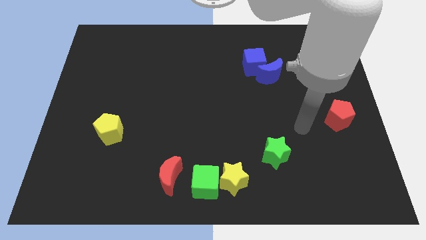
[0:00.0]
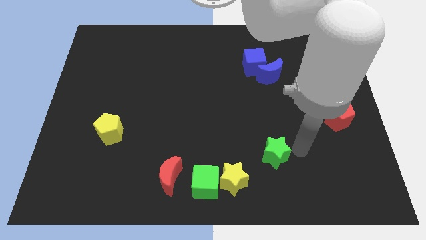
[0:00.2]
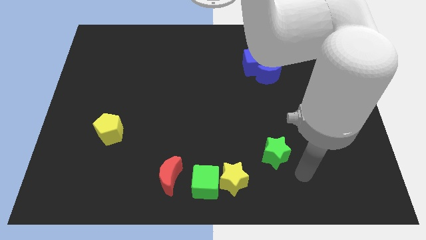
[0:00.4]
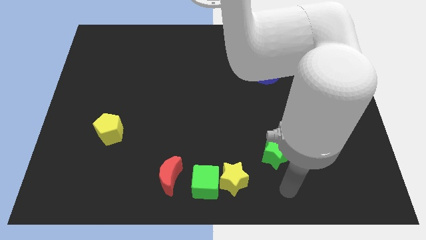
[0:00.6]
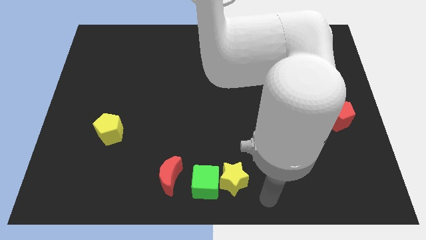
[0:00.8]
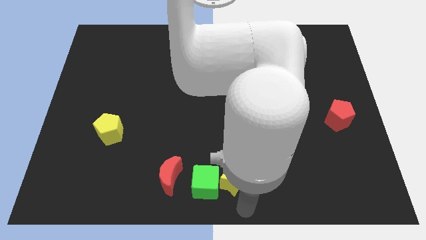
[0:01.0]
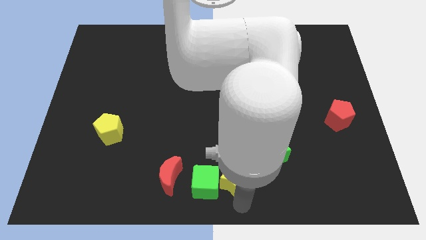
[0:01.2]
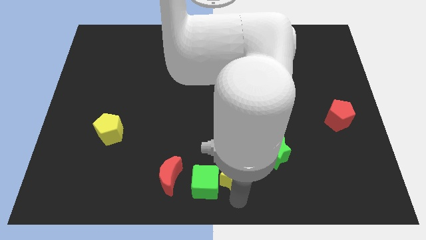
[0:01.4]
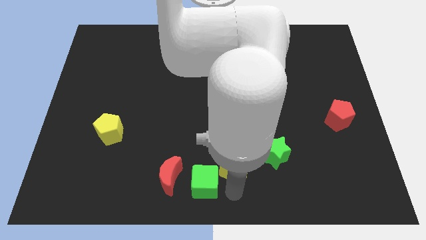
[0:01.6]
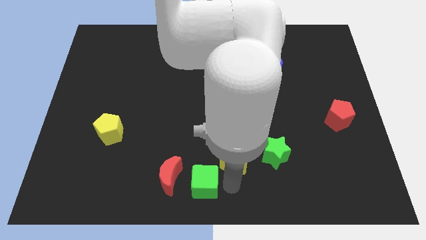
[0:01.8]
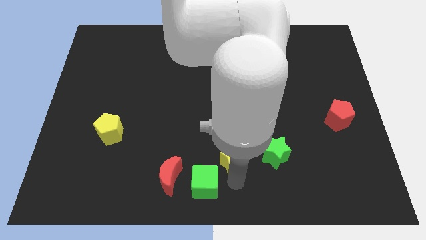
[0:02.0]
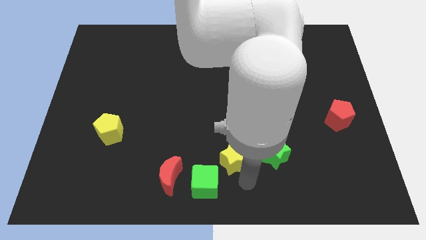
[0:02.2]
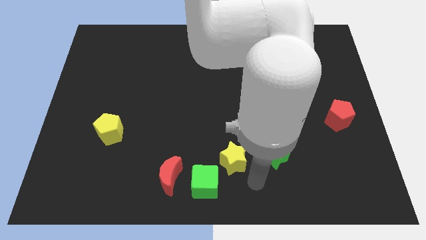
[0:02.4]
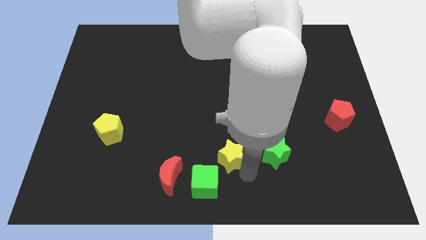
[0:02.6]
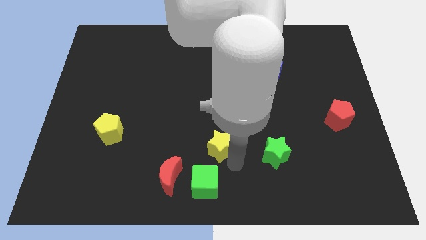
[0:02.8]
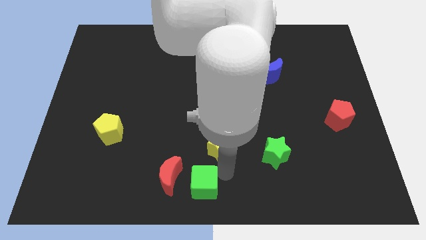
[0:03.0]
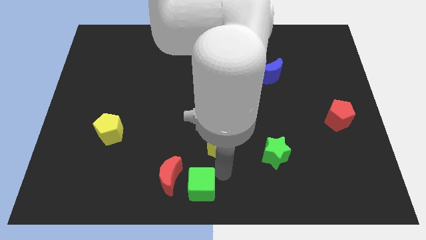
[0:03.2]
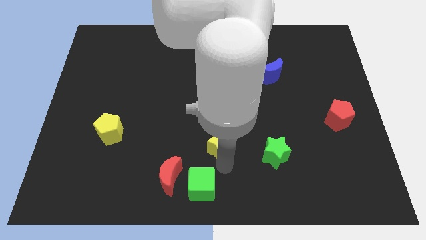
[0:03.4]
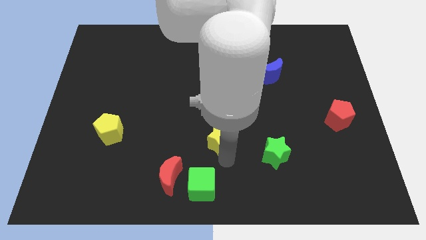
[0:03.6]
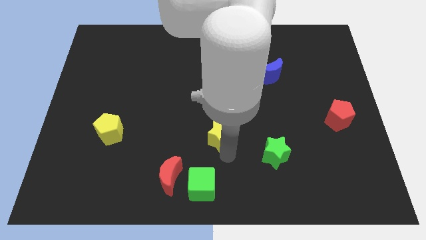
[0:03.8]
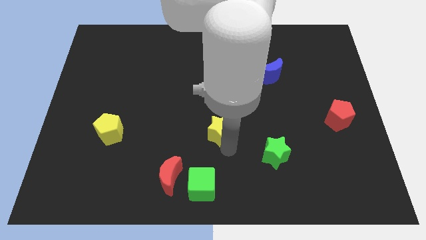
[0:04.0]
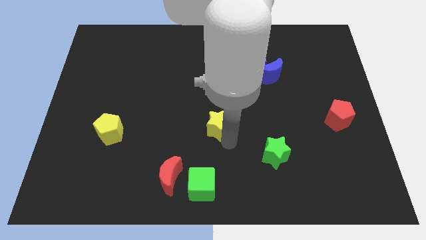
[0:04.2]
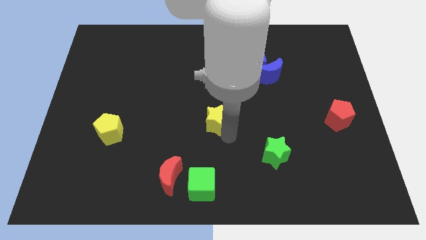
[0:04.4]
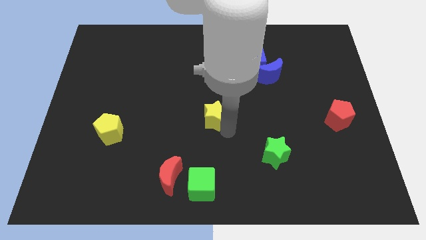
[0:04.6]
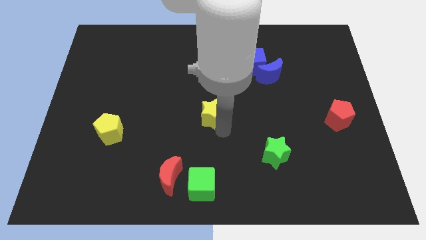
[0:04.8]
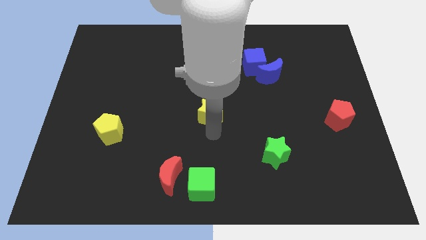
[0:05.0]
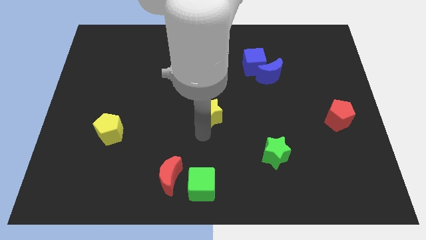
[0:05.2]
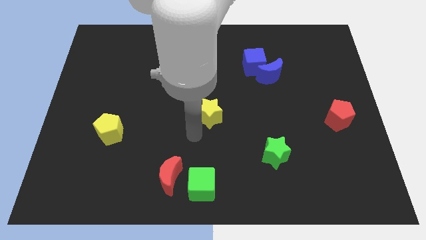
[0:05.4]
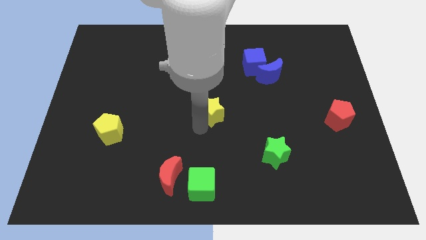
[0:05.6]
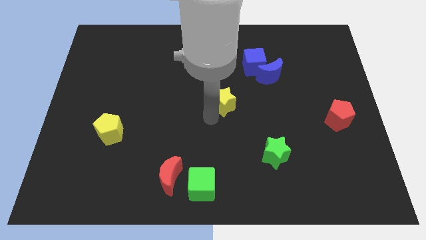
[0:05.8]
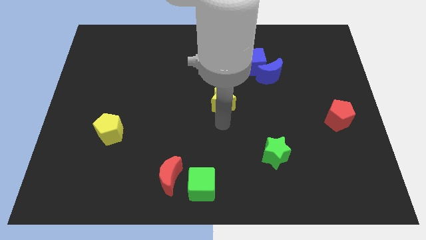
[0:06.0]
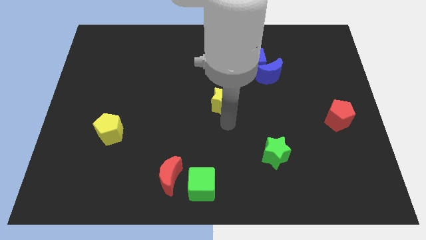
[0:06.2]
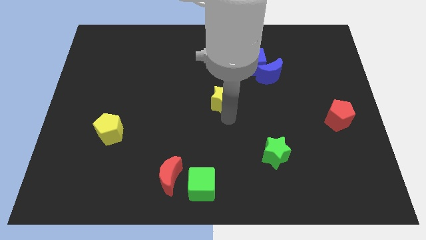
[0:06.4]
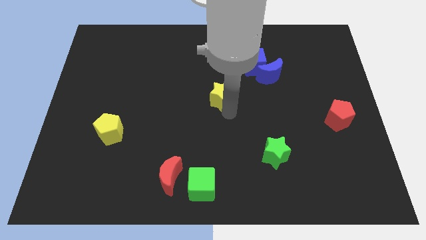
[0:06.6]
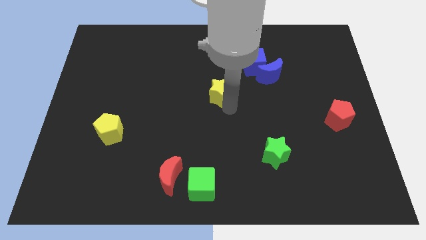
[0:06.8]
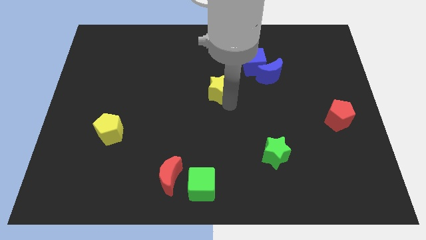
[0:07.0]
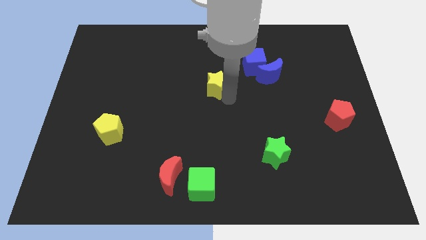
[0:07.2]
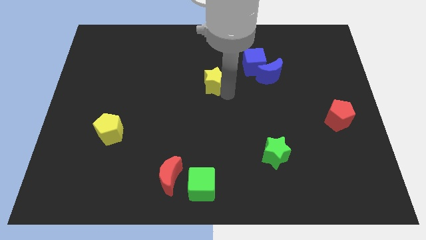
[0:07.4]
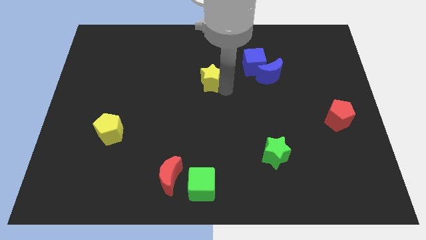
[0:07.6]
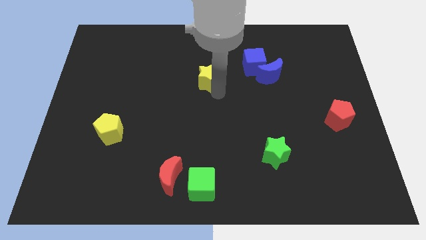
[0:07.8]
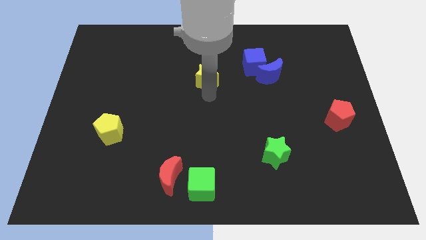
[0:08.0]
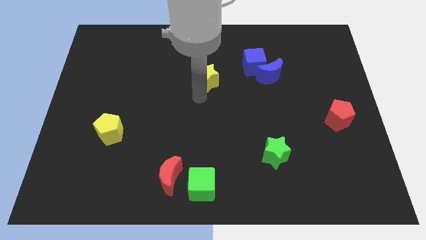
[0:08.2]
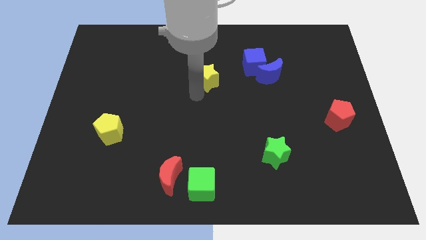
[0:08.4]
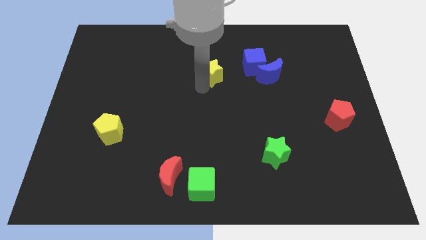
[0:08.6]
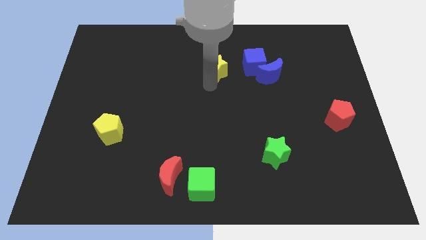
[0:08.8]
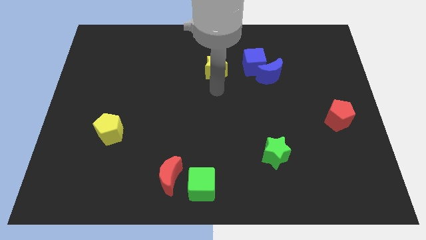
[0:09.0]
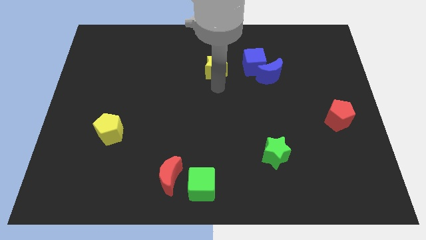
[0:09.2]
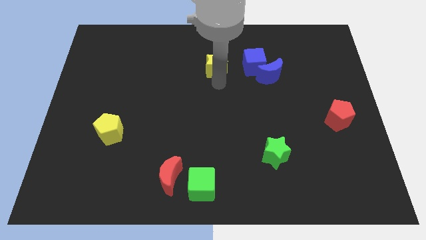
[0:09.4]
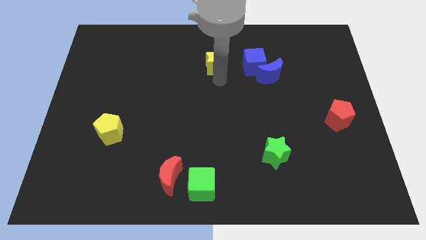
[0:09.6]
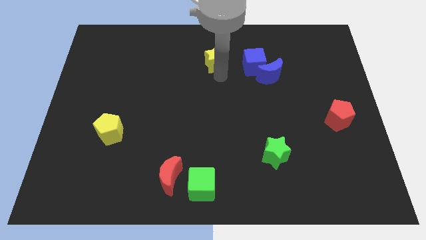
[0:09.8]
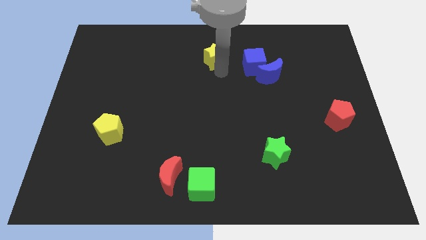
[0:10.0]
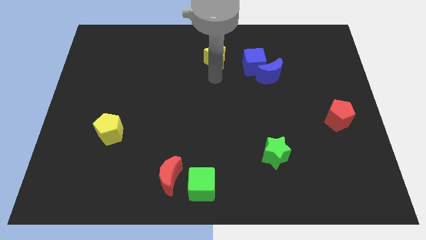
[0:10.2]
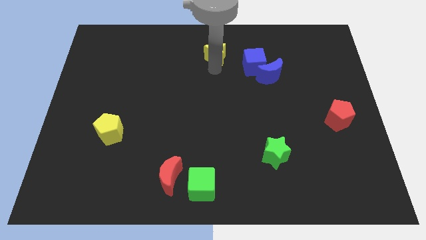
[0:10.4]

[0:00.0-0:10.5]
push the yellow star to the top side

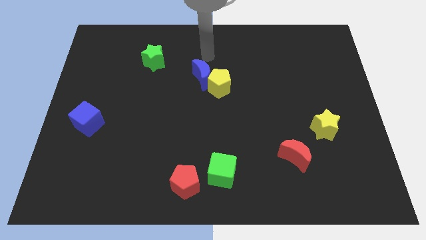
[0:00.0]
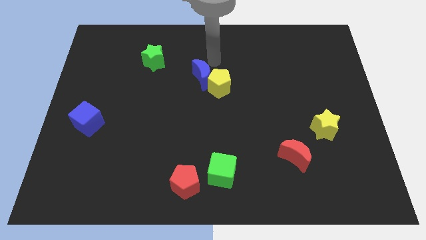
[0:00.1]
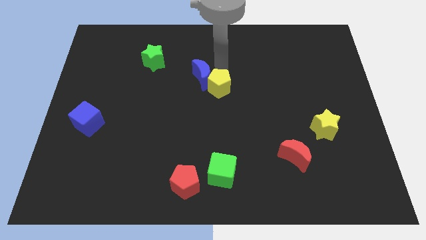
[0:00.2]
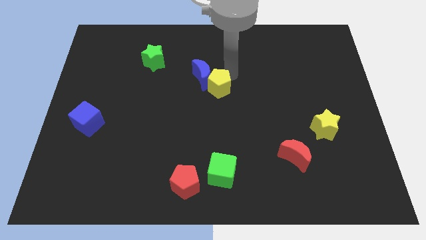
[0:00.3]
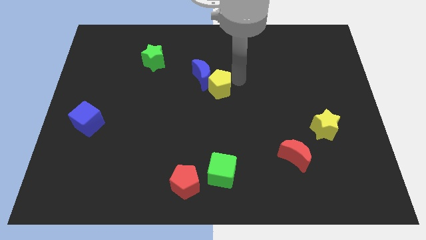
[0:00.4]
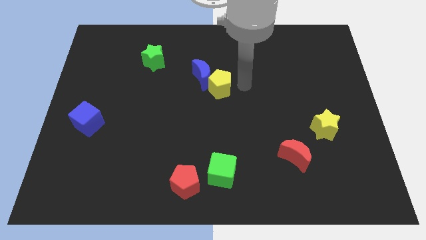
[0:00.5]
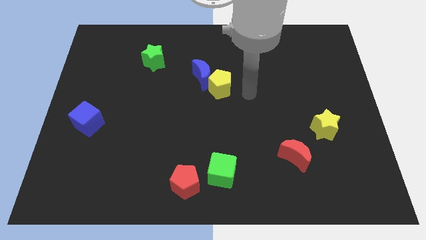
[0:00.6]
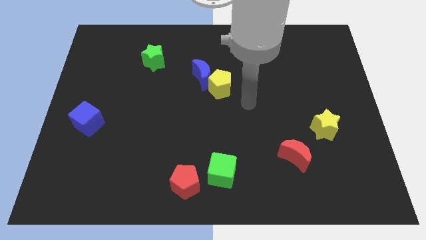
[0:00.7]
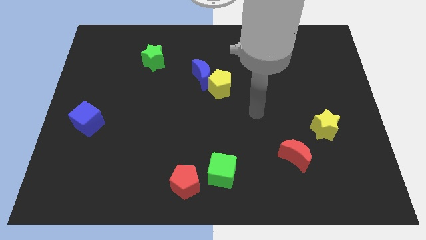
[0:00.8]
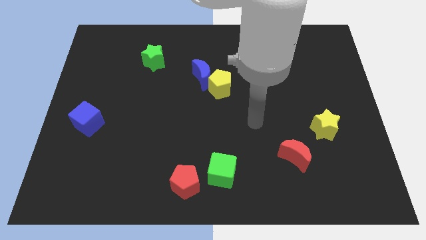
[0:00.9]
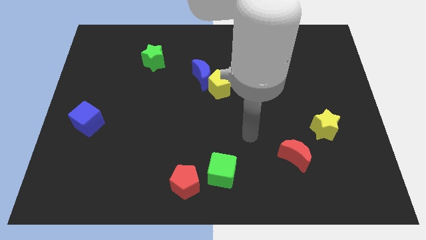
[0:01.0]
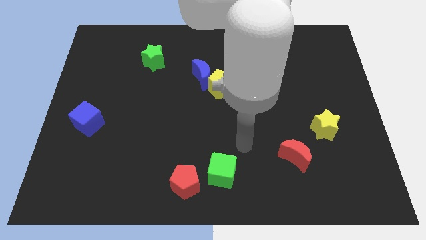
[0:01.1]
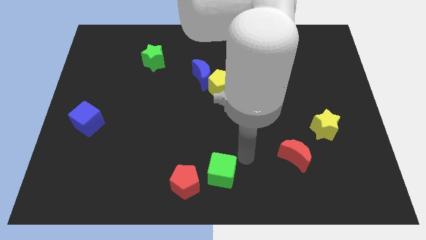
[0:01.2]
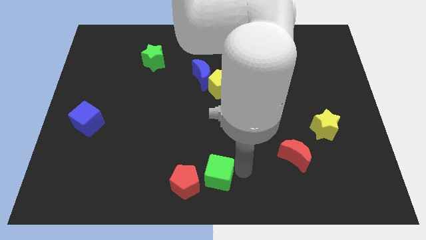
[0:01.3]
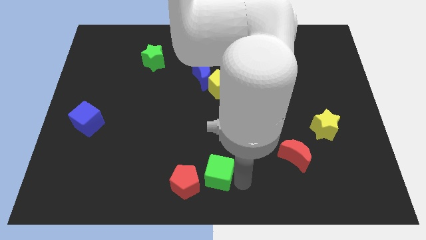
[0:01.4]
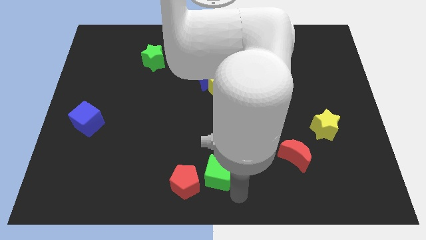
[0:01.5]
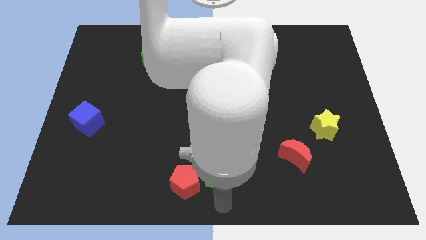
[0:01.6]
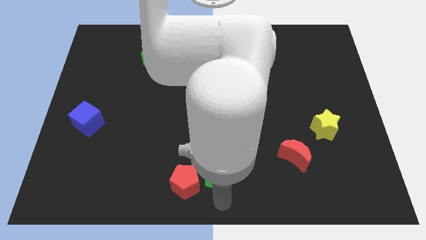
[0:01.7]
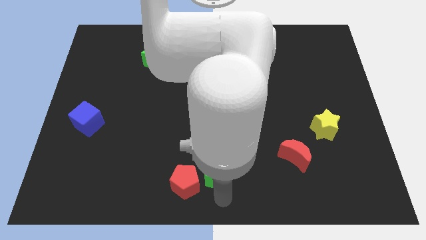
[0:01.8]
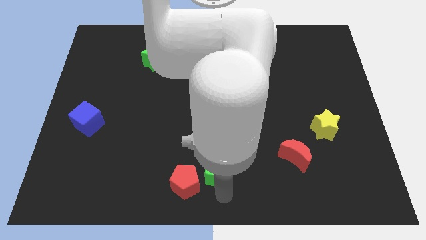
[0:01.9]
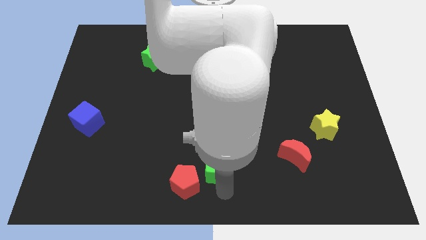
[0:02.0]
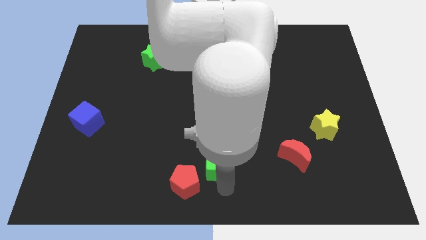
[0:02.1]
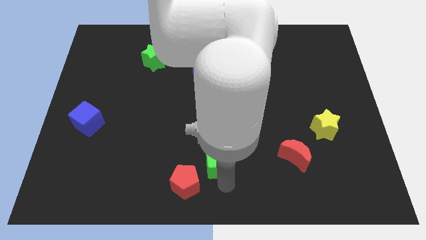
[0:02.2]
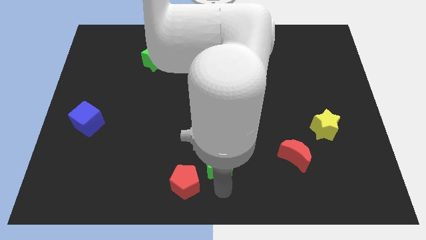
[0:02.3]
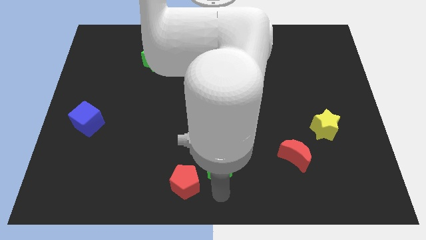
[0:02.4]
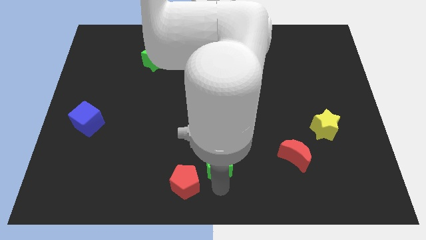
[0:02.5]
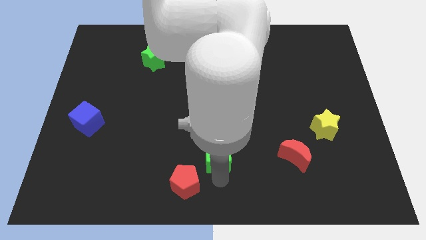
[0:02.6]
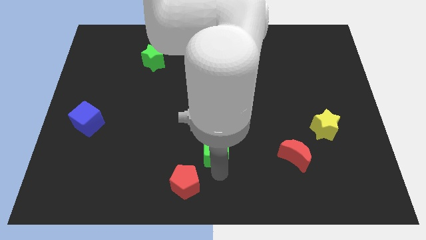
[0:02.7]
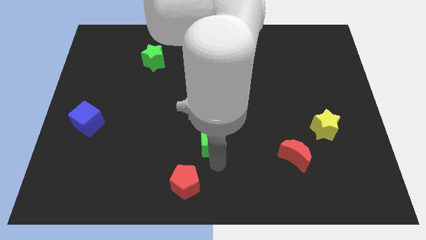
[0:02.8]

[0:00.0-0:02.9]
move the green cube to the middle
